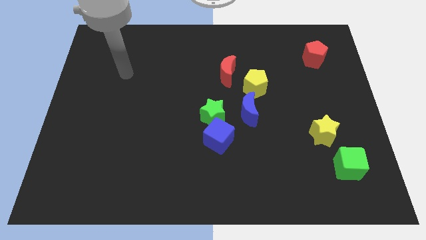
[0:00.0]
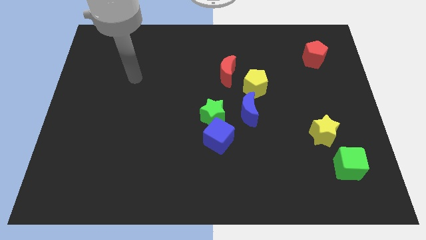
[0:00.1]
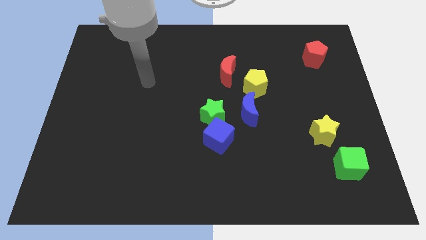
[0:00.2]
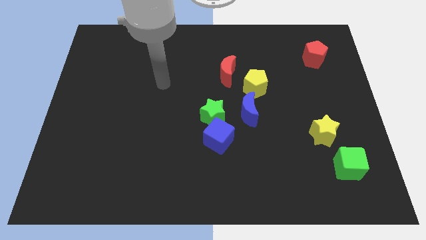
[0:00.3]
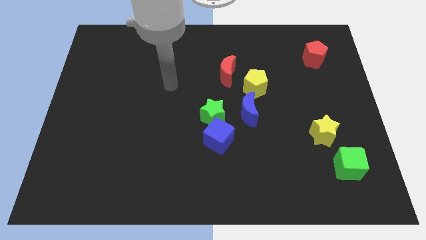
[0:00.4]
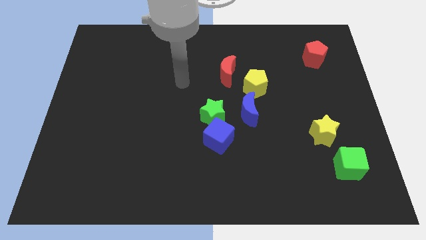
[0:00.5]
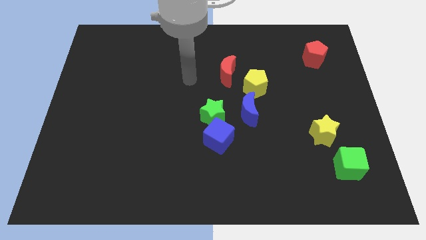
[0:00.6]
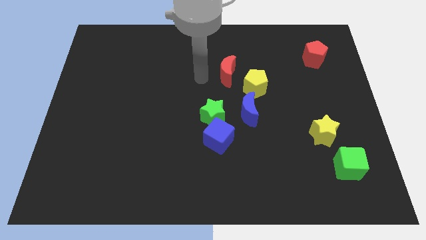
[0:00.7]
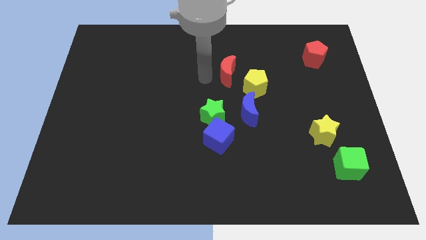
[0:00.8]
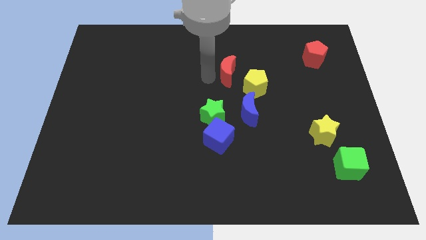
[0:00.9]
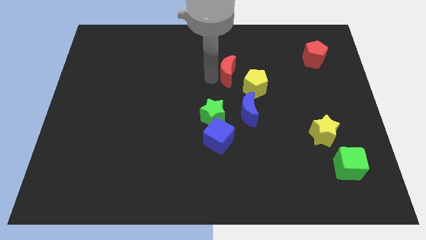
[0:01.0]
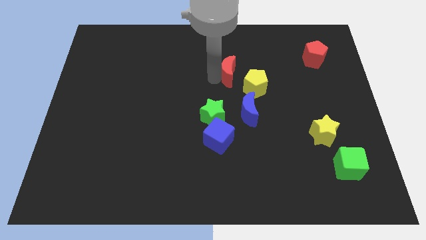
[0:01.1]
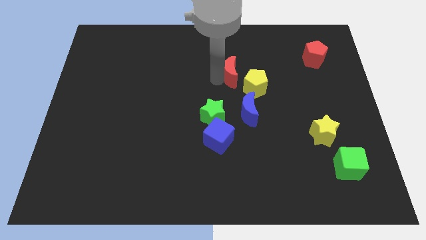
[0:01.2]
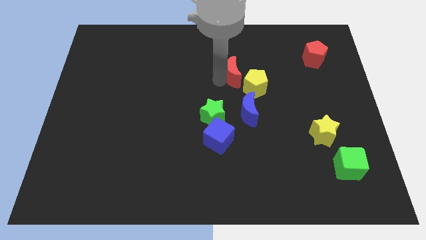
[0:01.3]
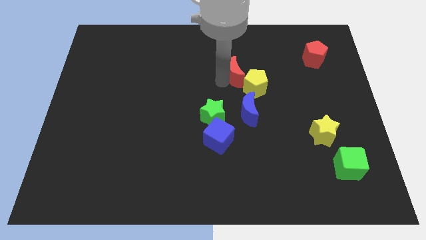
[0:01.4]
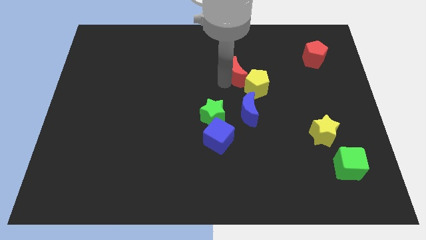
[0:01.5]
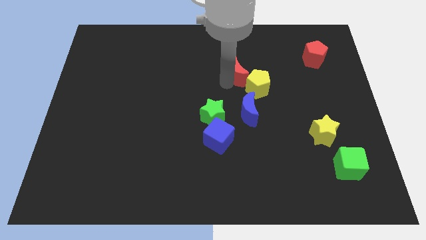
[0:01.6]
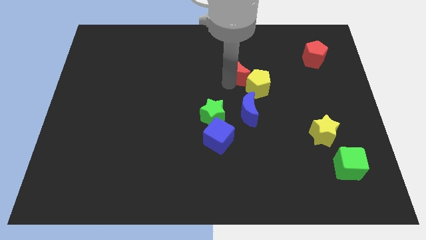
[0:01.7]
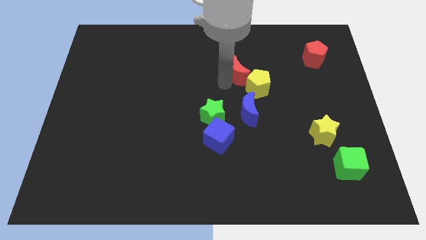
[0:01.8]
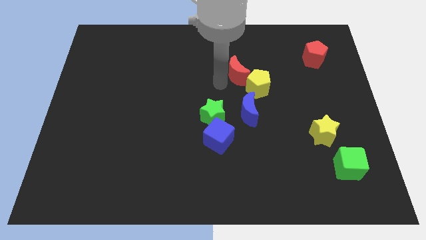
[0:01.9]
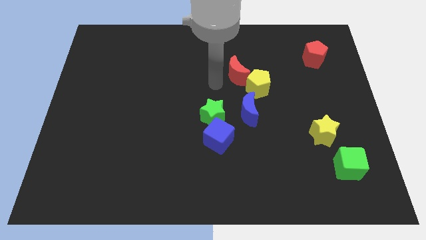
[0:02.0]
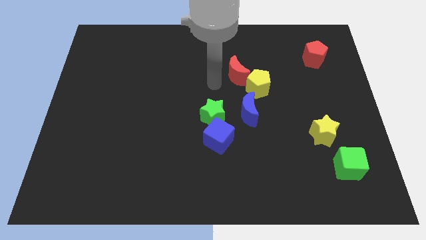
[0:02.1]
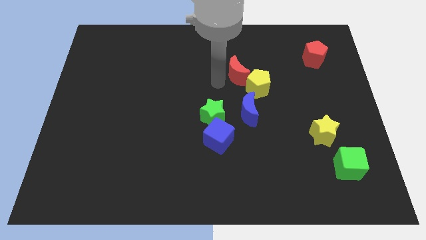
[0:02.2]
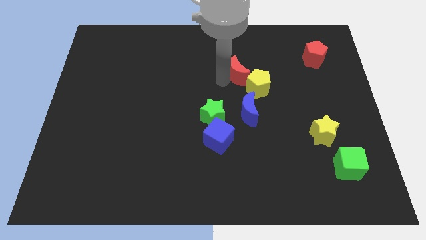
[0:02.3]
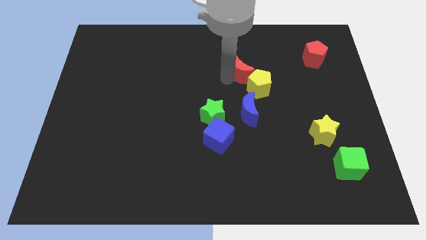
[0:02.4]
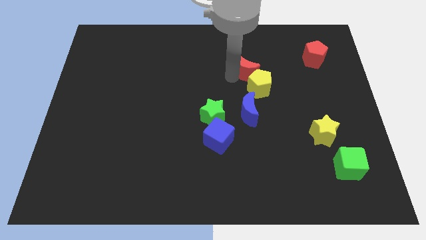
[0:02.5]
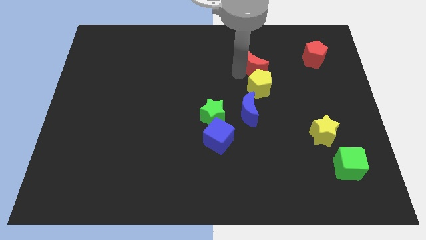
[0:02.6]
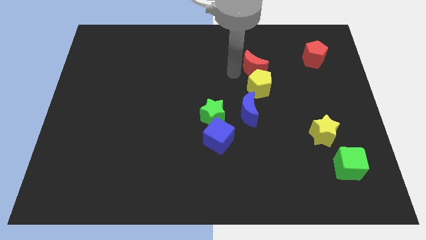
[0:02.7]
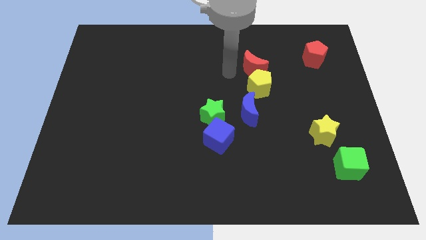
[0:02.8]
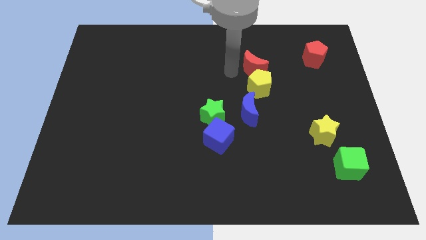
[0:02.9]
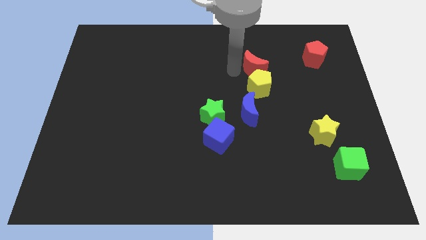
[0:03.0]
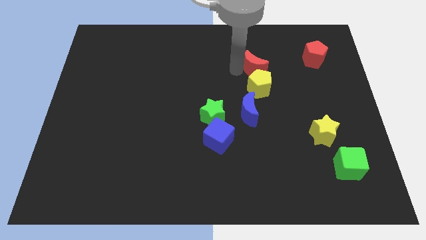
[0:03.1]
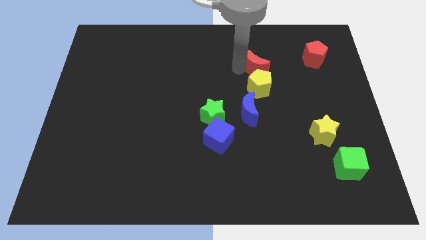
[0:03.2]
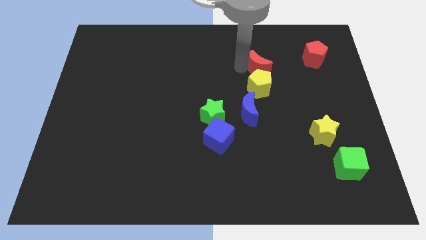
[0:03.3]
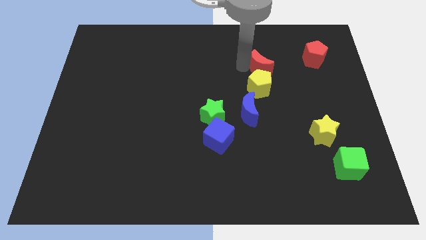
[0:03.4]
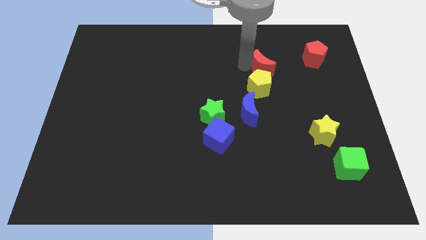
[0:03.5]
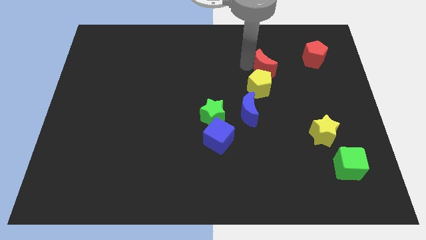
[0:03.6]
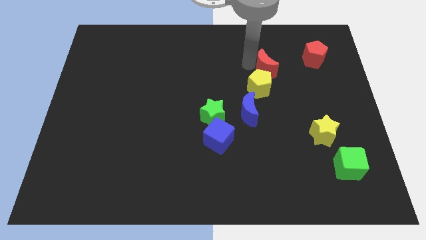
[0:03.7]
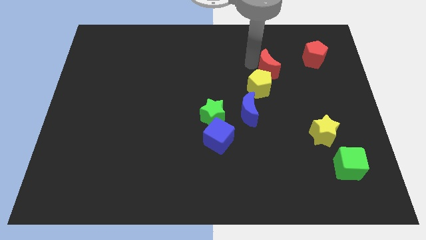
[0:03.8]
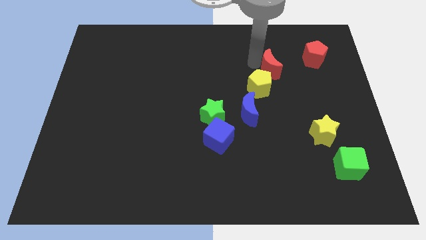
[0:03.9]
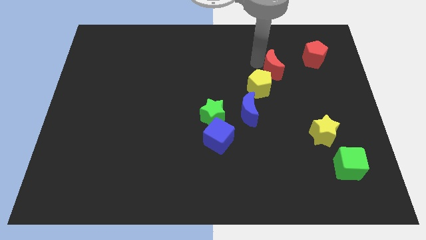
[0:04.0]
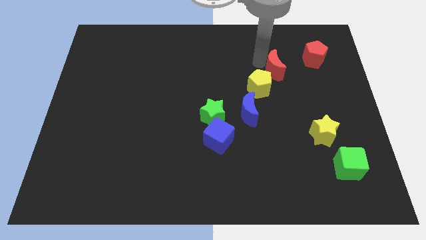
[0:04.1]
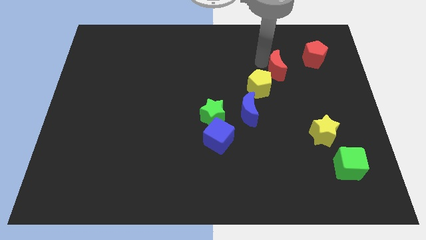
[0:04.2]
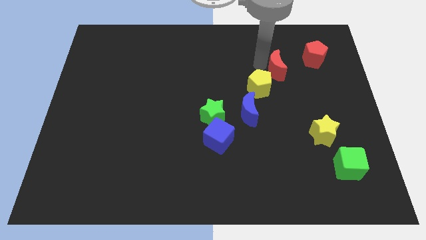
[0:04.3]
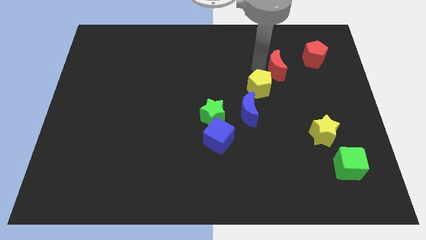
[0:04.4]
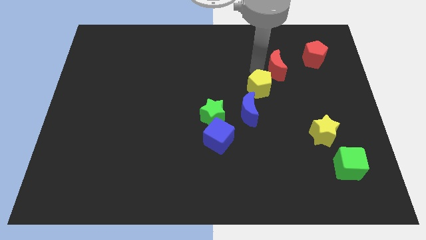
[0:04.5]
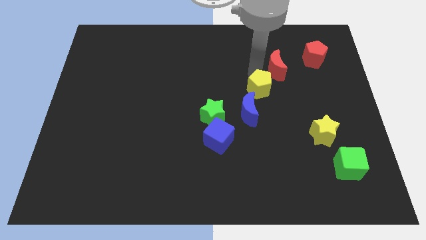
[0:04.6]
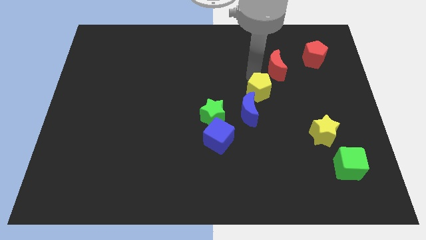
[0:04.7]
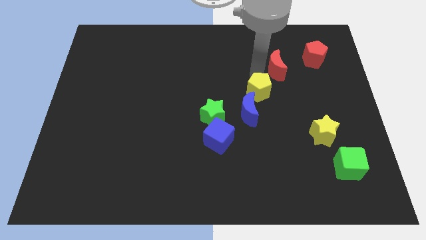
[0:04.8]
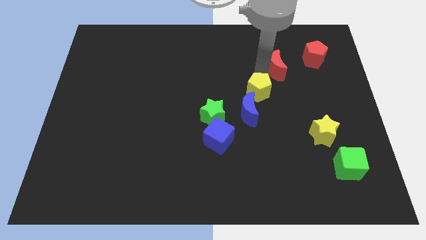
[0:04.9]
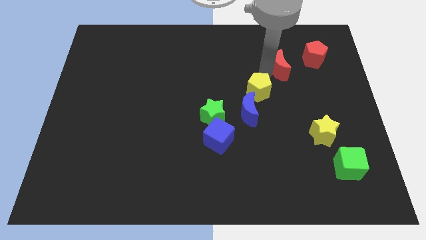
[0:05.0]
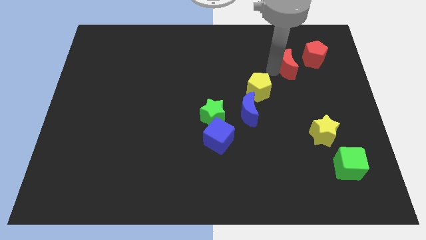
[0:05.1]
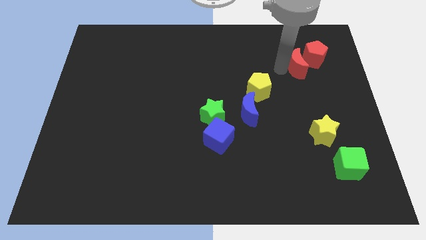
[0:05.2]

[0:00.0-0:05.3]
push the red moon close to the red pentagon

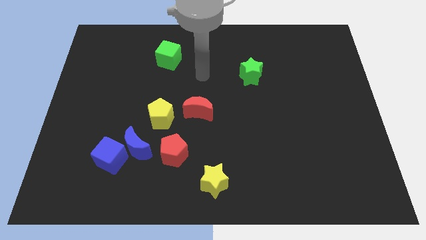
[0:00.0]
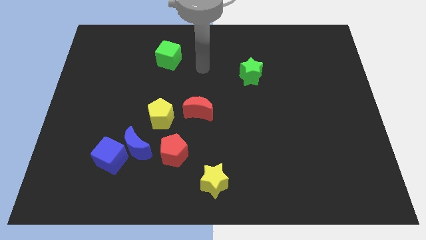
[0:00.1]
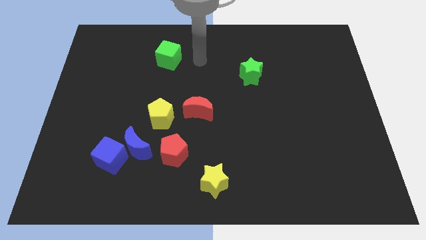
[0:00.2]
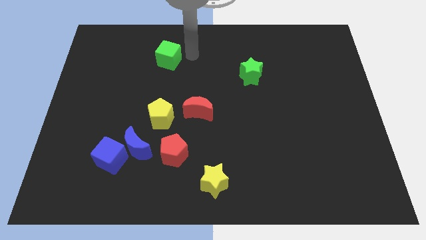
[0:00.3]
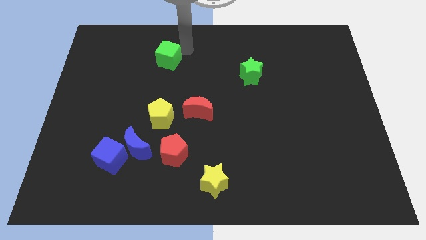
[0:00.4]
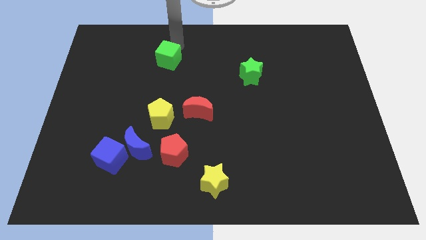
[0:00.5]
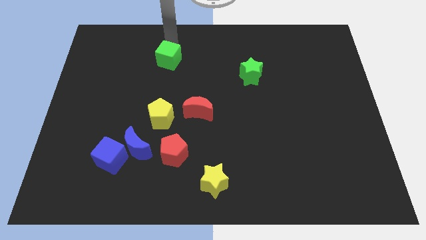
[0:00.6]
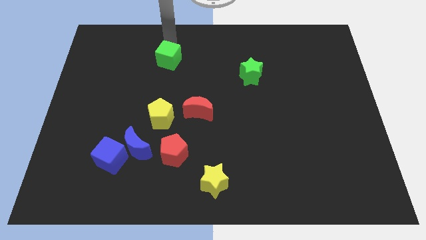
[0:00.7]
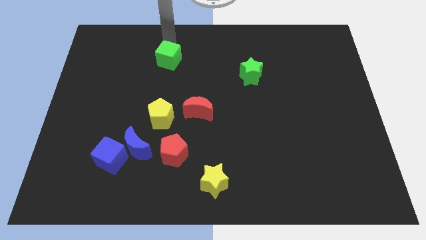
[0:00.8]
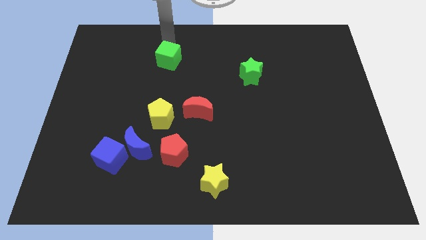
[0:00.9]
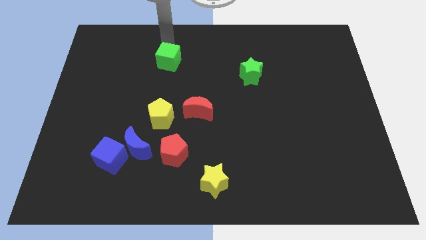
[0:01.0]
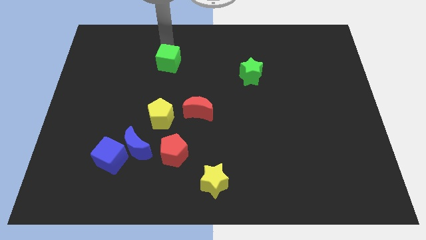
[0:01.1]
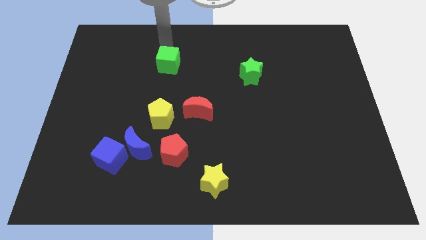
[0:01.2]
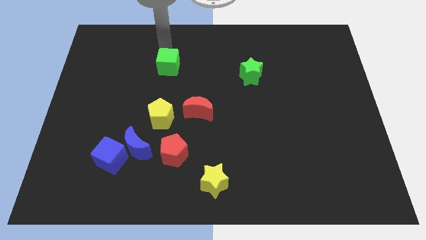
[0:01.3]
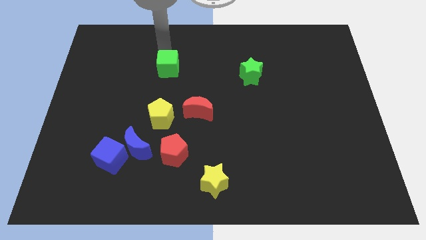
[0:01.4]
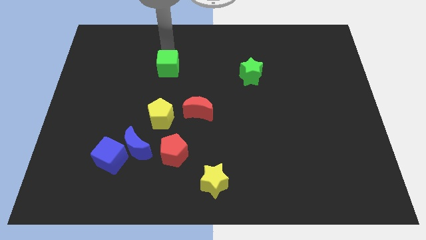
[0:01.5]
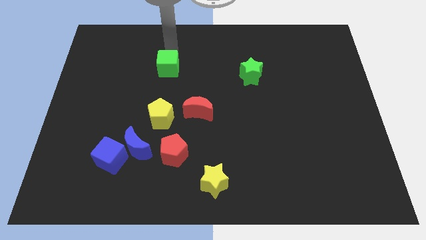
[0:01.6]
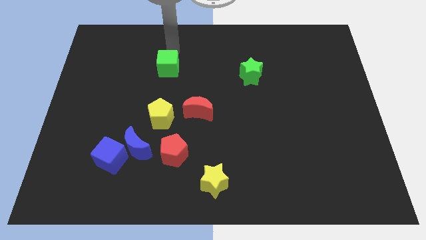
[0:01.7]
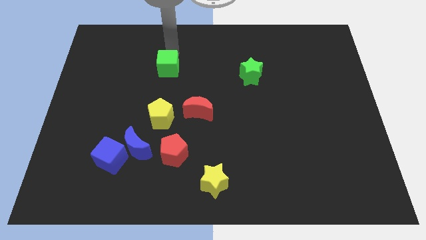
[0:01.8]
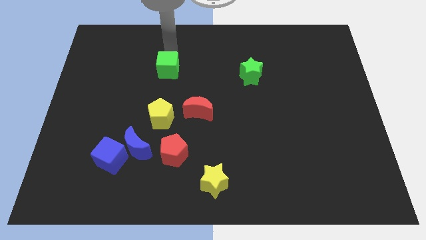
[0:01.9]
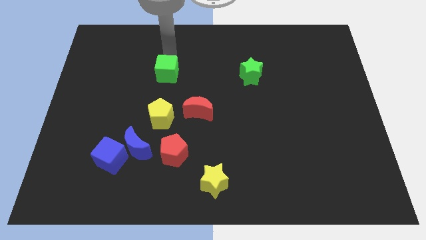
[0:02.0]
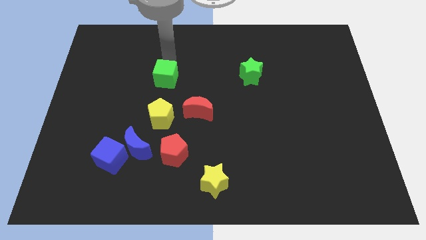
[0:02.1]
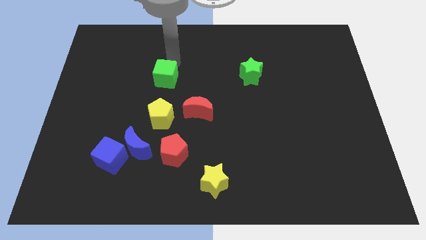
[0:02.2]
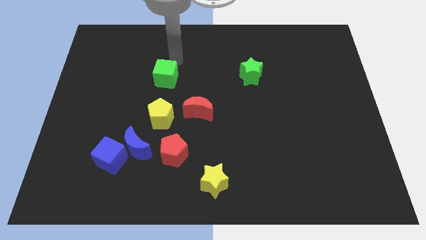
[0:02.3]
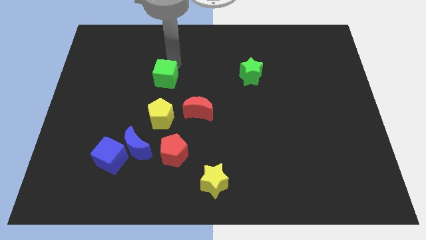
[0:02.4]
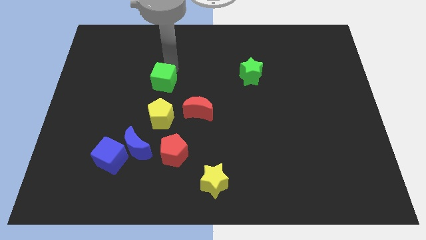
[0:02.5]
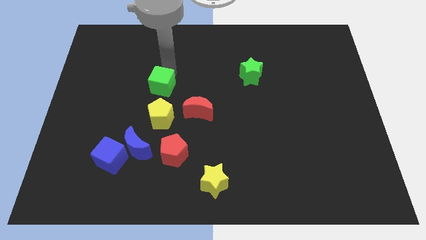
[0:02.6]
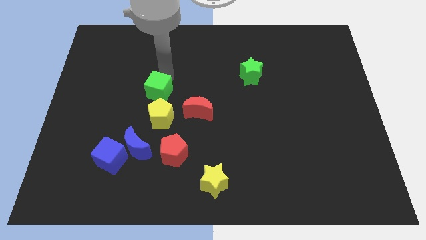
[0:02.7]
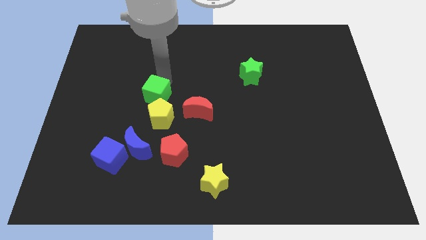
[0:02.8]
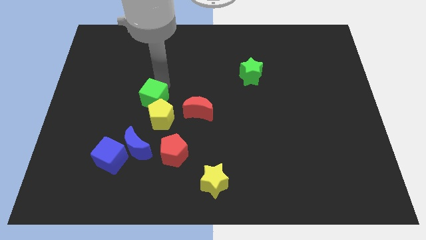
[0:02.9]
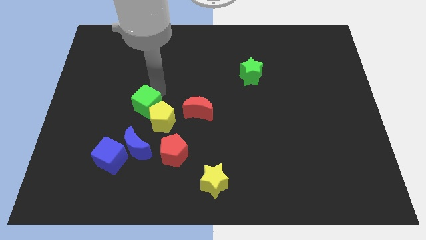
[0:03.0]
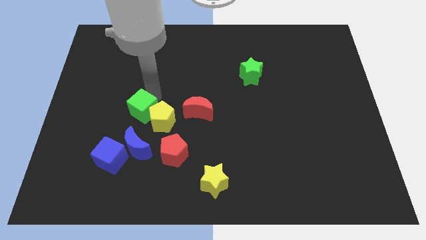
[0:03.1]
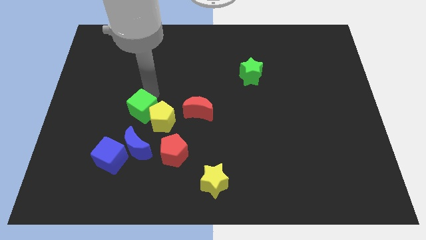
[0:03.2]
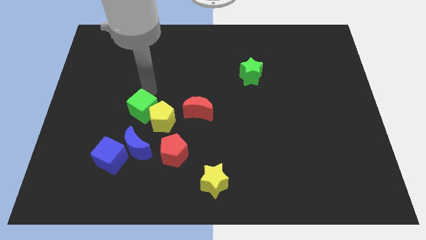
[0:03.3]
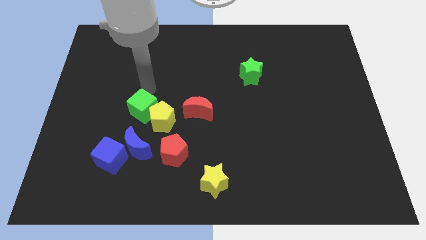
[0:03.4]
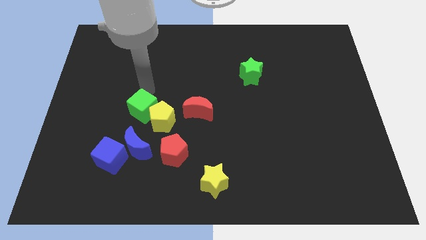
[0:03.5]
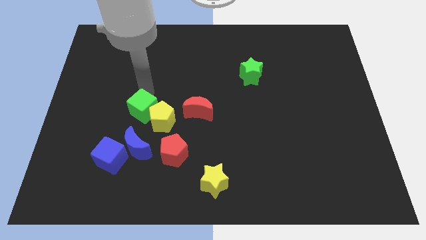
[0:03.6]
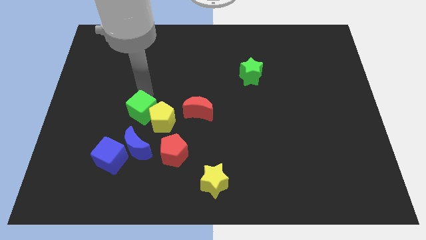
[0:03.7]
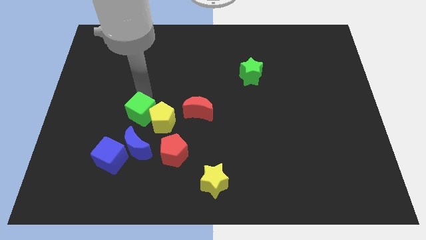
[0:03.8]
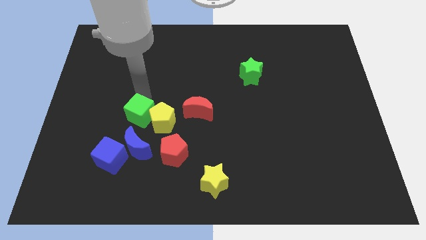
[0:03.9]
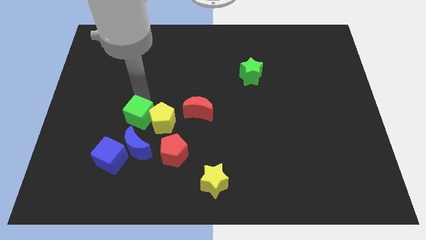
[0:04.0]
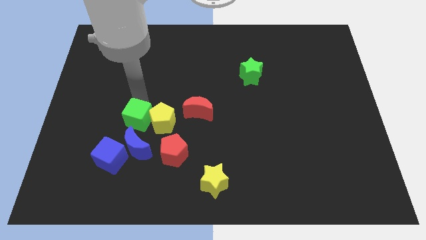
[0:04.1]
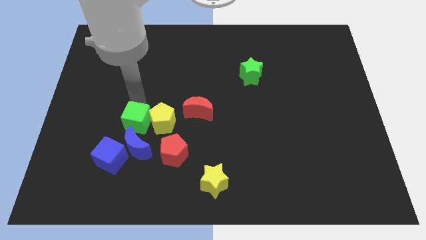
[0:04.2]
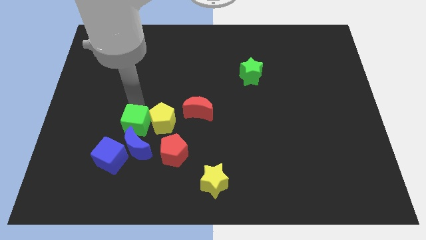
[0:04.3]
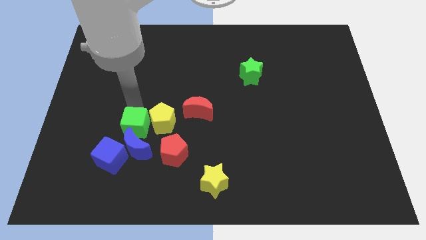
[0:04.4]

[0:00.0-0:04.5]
put the green cube close to the blue moon
